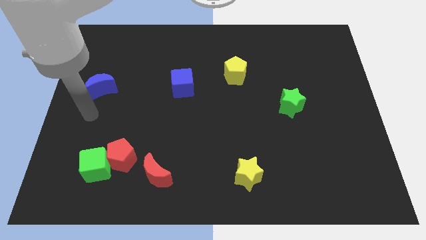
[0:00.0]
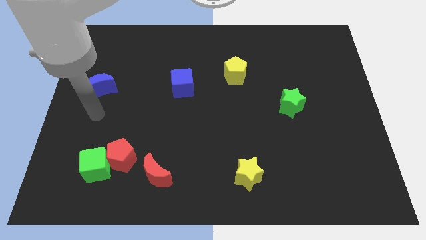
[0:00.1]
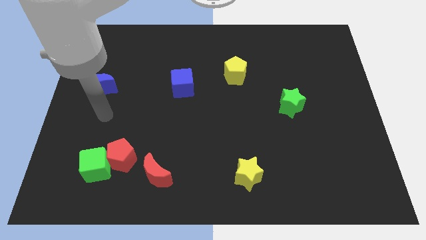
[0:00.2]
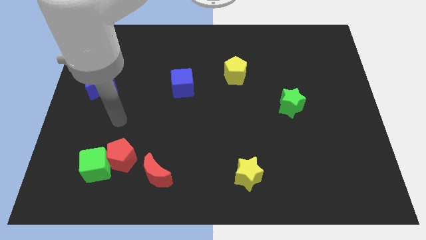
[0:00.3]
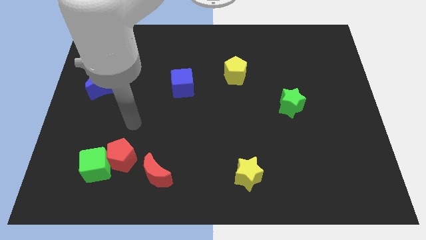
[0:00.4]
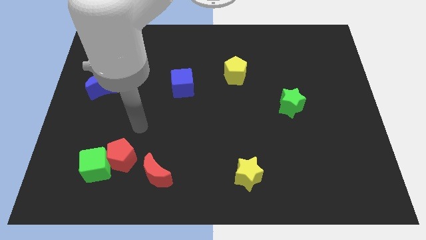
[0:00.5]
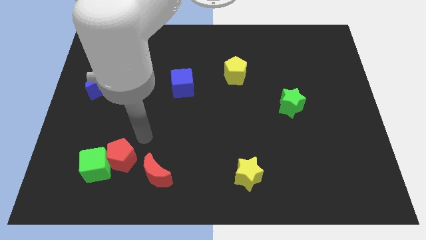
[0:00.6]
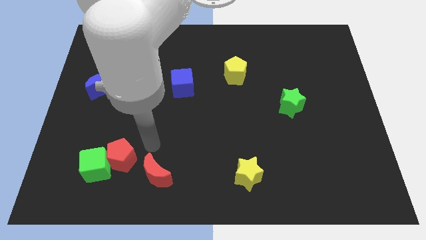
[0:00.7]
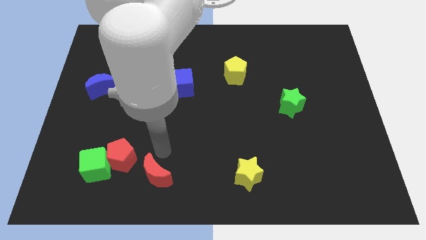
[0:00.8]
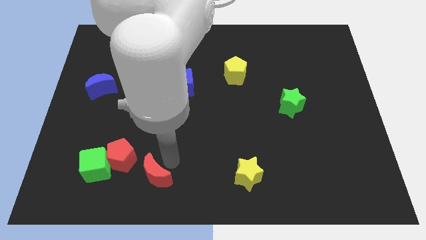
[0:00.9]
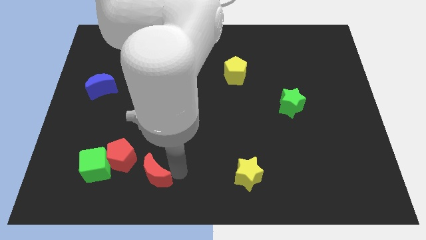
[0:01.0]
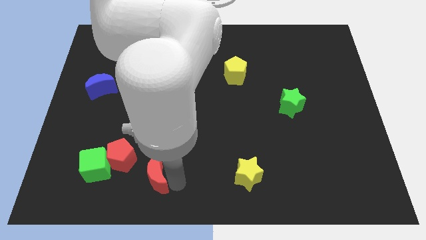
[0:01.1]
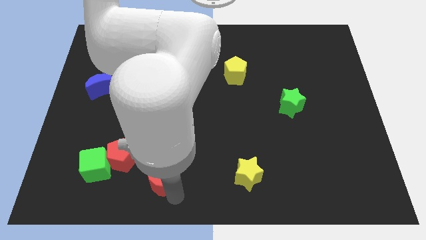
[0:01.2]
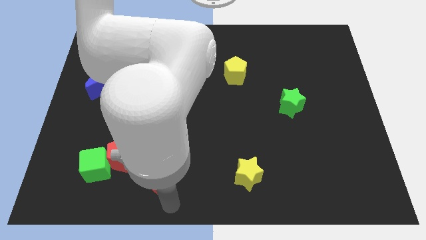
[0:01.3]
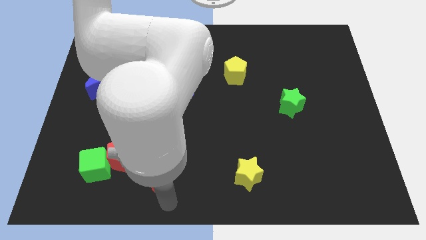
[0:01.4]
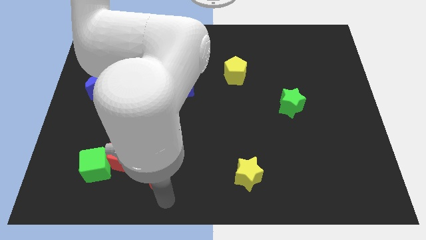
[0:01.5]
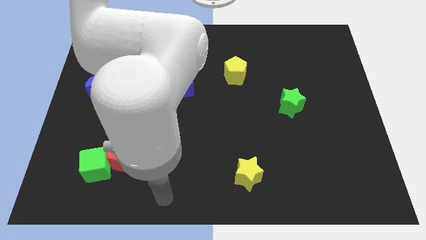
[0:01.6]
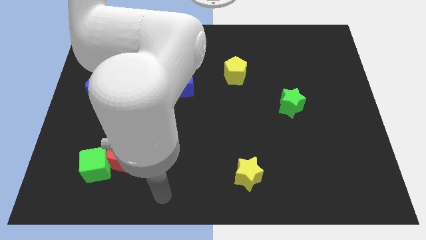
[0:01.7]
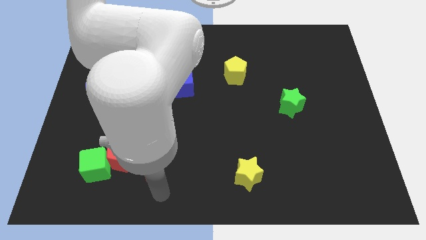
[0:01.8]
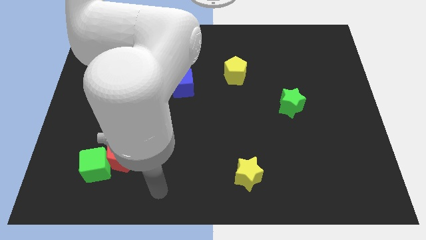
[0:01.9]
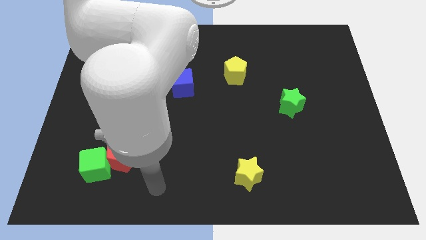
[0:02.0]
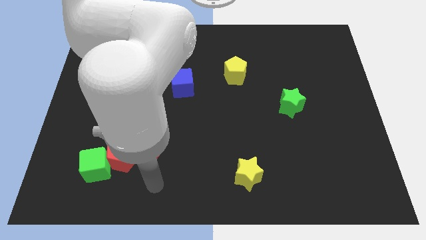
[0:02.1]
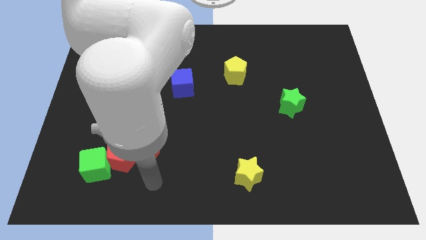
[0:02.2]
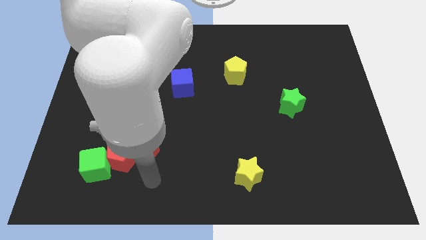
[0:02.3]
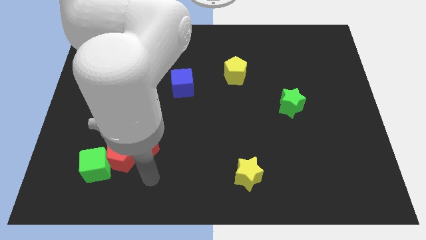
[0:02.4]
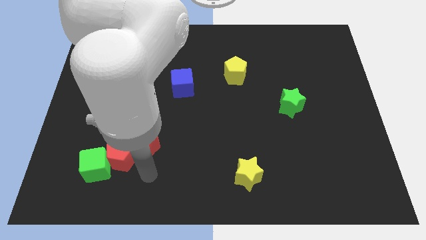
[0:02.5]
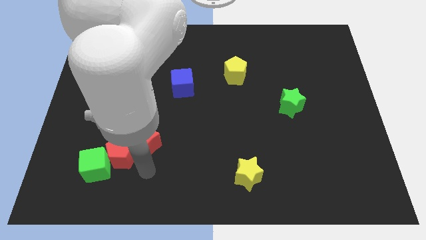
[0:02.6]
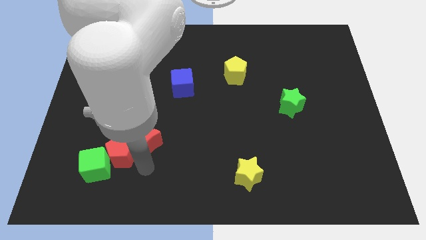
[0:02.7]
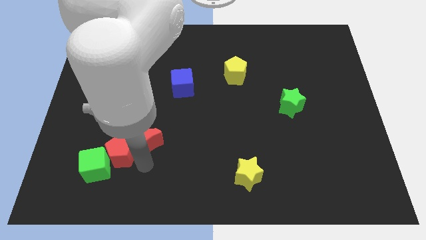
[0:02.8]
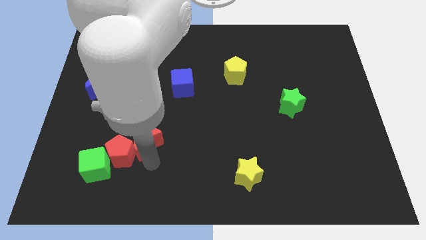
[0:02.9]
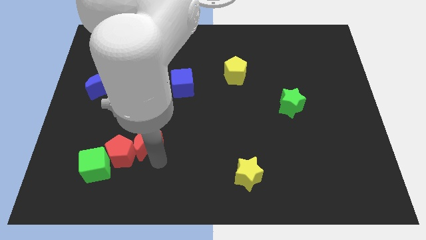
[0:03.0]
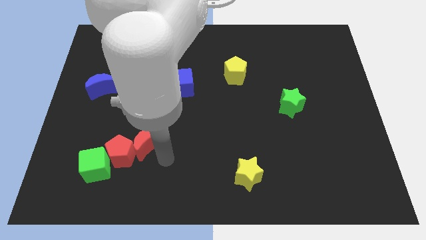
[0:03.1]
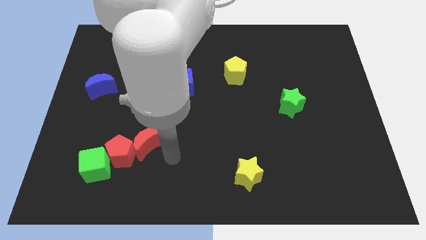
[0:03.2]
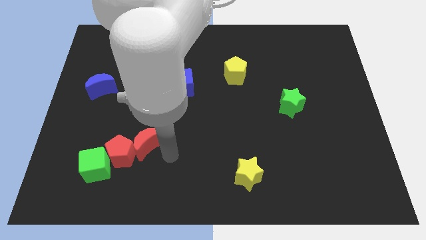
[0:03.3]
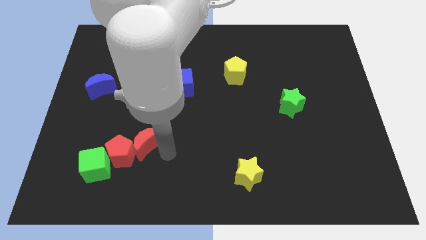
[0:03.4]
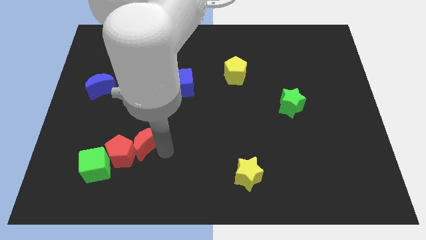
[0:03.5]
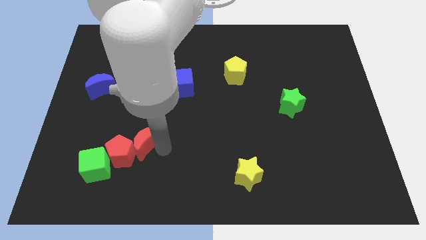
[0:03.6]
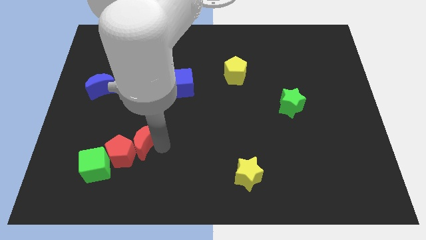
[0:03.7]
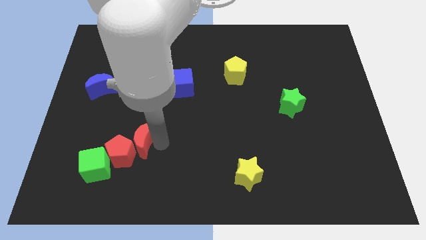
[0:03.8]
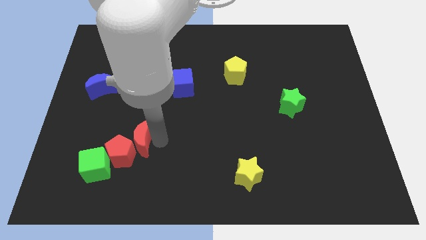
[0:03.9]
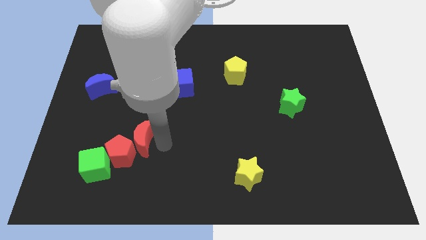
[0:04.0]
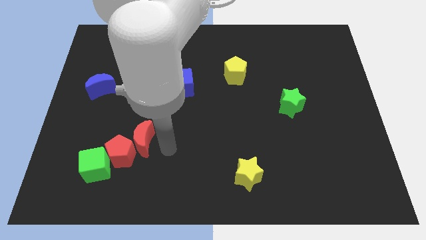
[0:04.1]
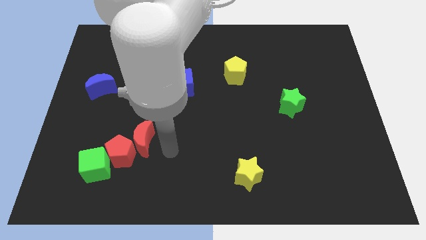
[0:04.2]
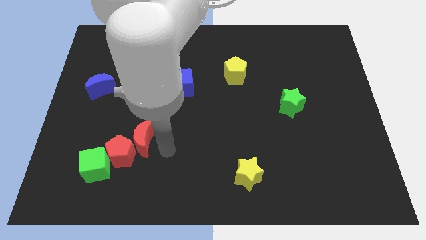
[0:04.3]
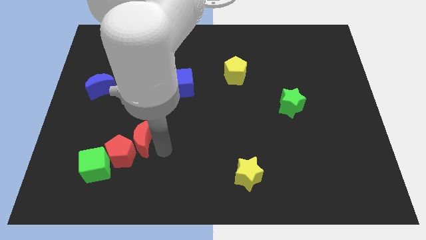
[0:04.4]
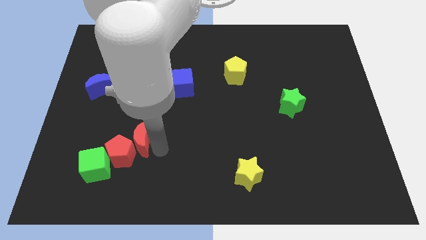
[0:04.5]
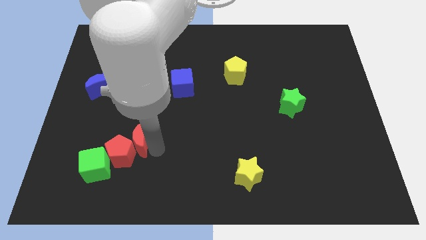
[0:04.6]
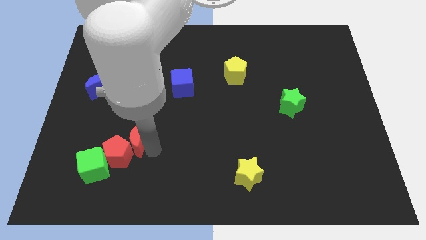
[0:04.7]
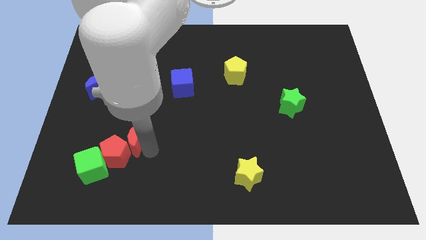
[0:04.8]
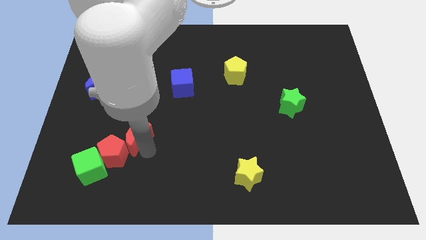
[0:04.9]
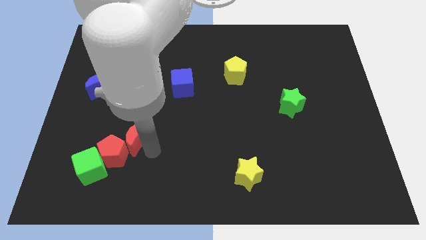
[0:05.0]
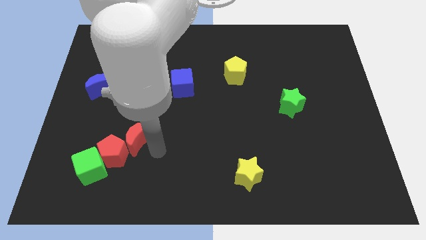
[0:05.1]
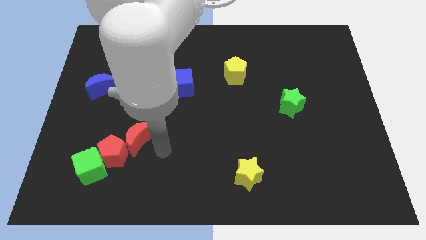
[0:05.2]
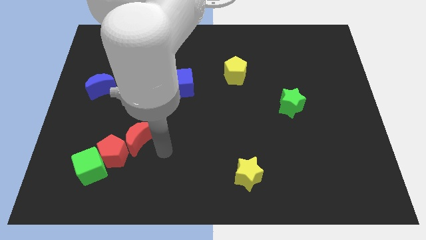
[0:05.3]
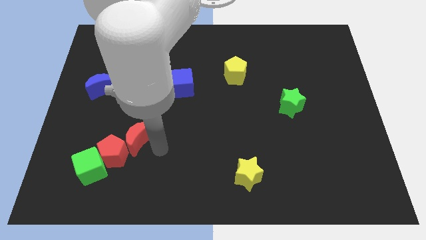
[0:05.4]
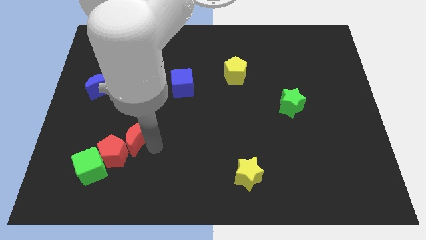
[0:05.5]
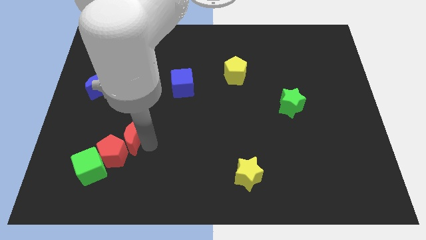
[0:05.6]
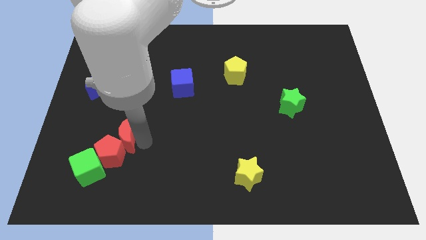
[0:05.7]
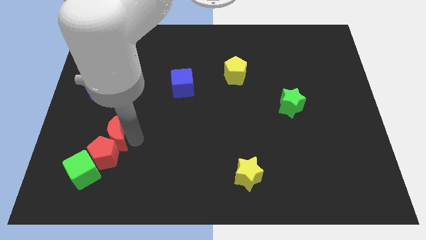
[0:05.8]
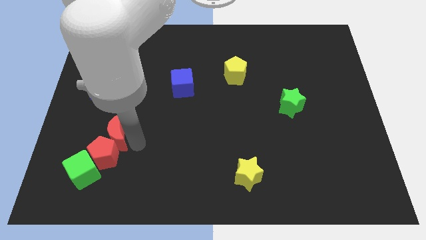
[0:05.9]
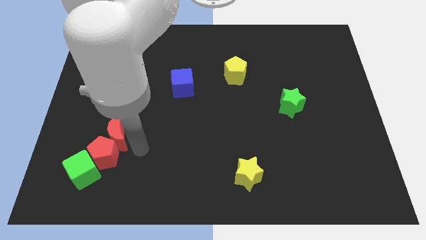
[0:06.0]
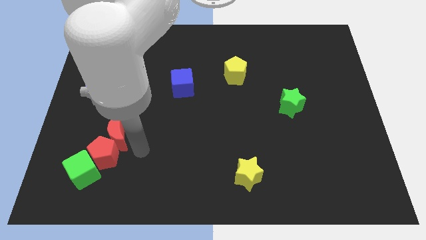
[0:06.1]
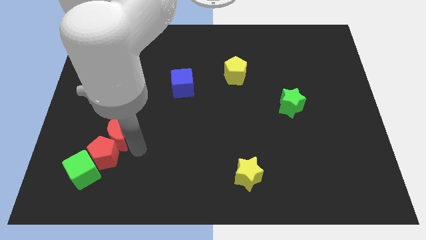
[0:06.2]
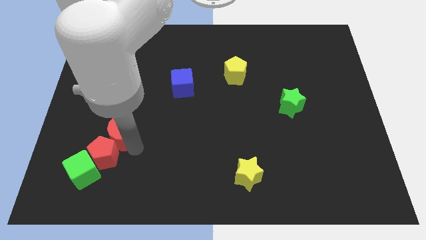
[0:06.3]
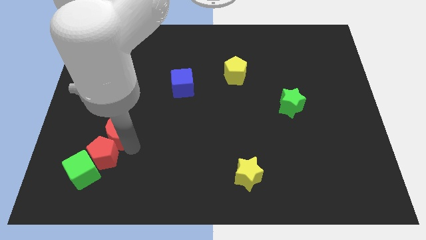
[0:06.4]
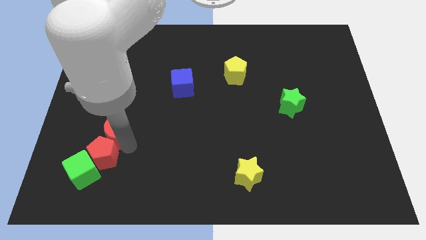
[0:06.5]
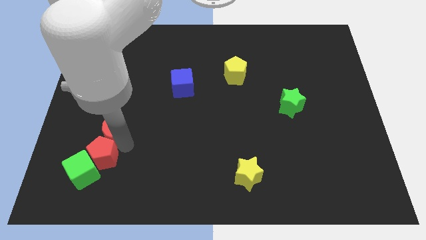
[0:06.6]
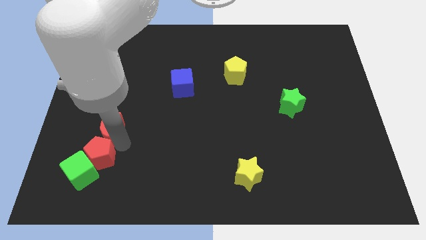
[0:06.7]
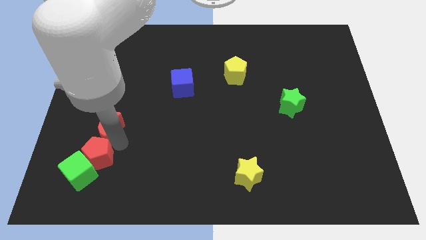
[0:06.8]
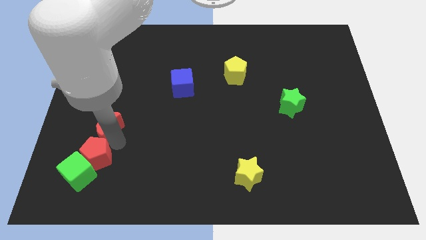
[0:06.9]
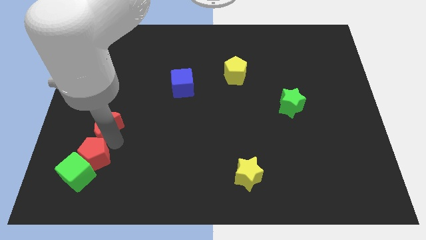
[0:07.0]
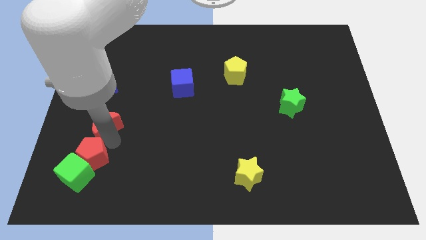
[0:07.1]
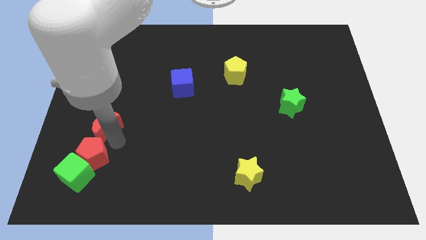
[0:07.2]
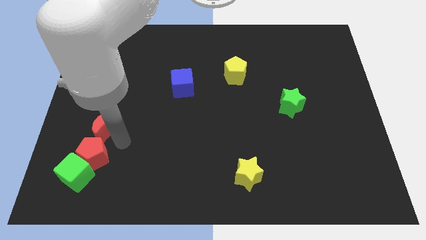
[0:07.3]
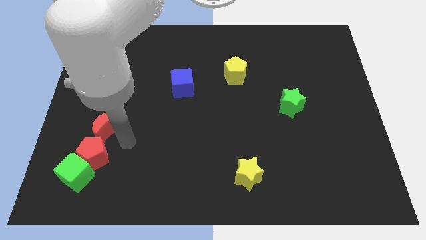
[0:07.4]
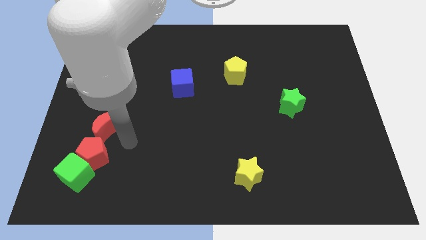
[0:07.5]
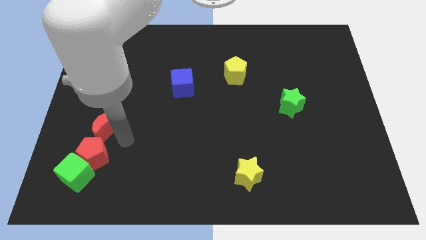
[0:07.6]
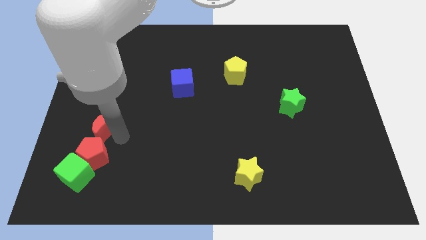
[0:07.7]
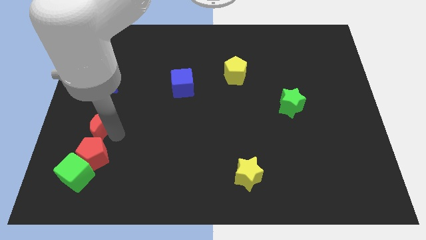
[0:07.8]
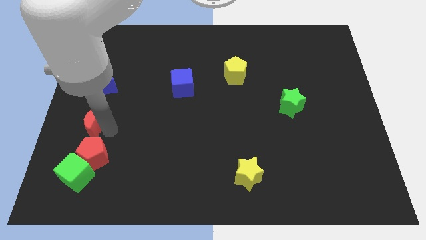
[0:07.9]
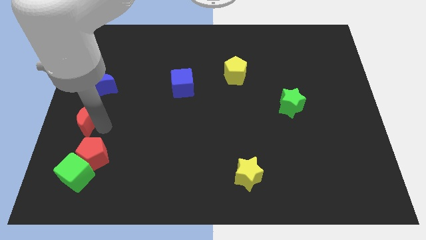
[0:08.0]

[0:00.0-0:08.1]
move the red moon to the left side of the board
